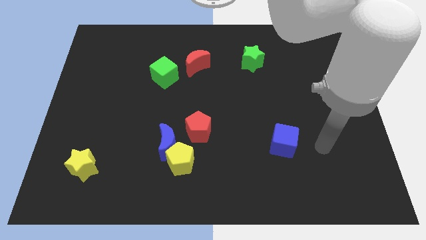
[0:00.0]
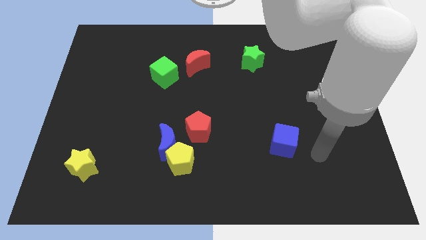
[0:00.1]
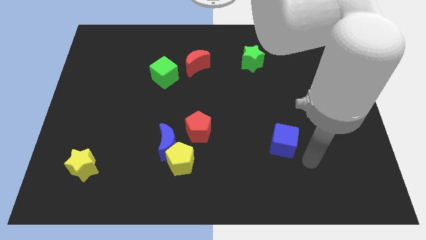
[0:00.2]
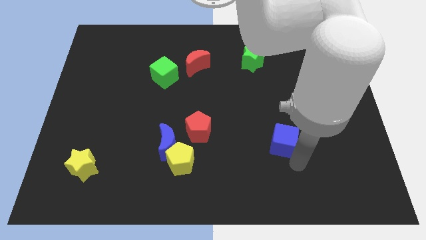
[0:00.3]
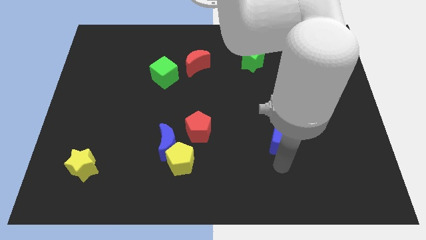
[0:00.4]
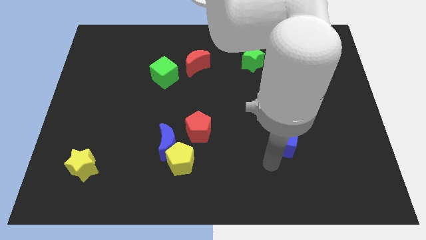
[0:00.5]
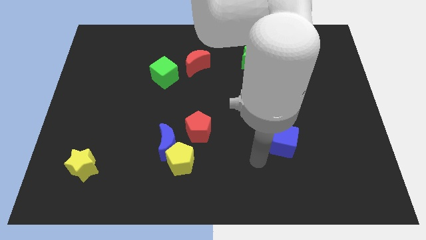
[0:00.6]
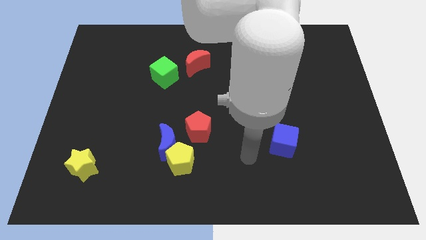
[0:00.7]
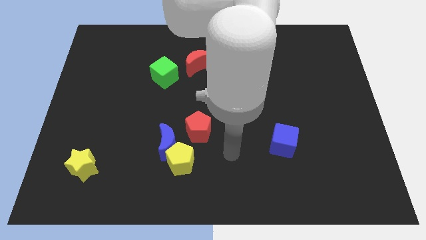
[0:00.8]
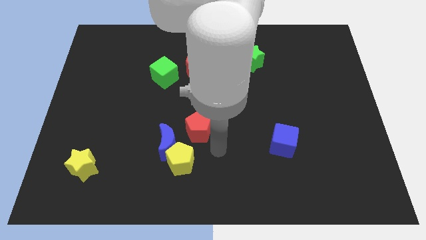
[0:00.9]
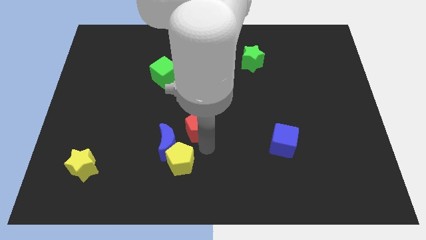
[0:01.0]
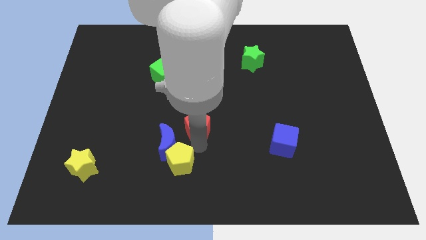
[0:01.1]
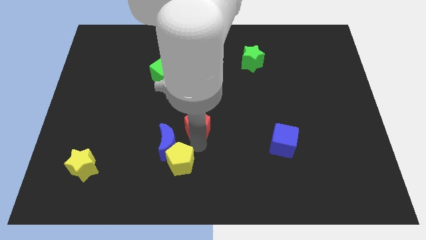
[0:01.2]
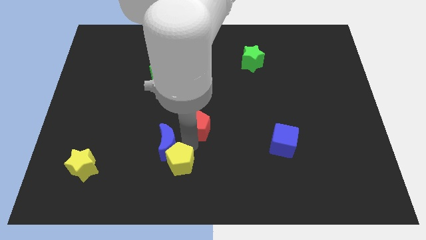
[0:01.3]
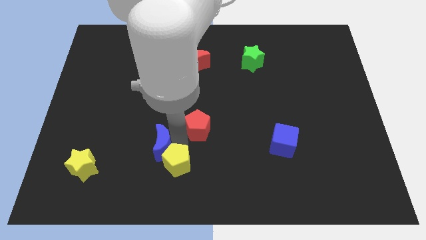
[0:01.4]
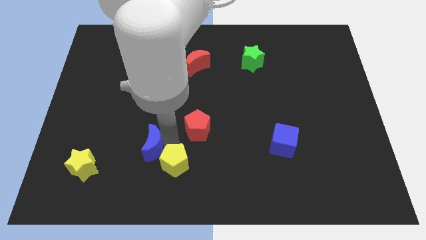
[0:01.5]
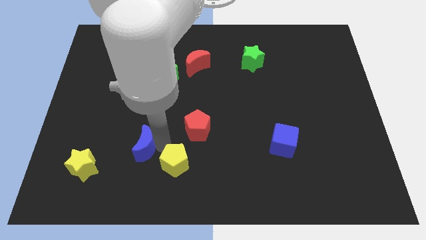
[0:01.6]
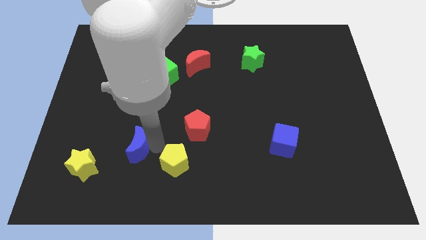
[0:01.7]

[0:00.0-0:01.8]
move the blue moon away from the yellow pentagon and red pentagon

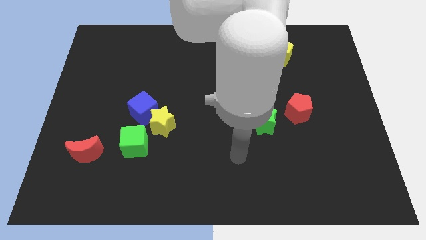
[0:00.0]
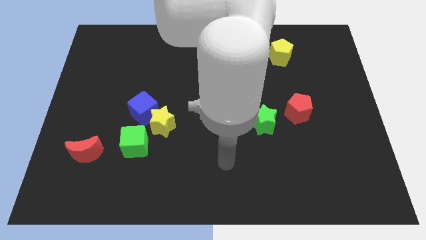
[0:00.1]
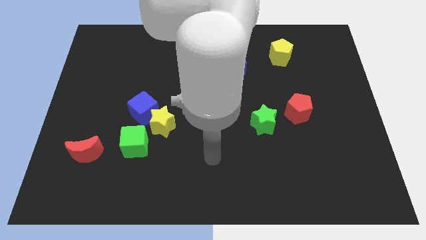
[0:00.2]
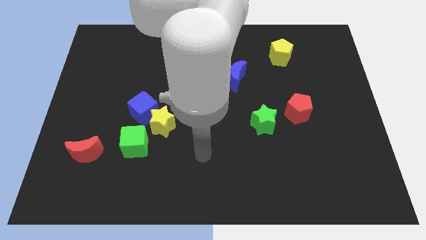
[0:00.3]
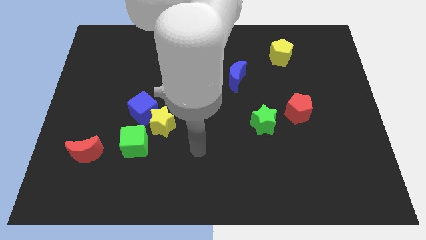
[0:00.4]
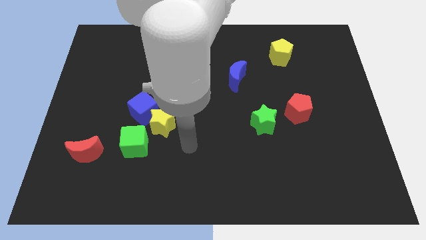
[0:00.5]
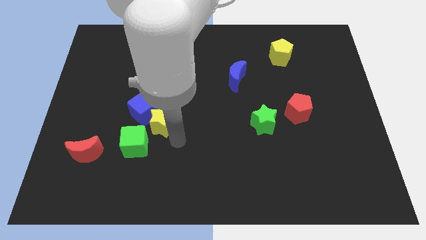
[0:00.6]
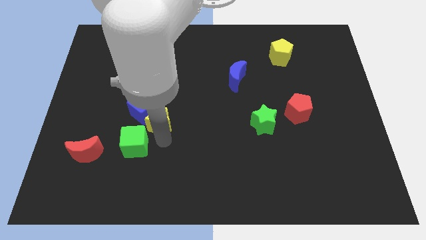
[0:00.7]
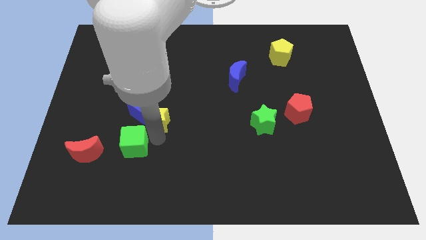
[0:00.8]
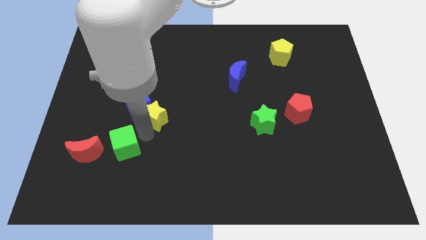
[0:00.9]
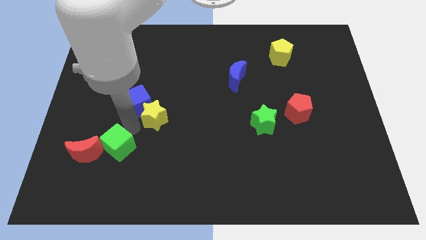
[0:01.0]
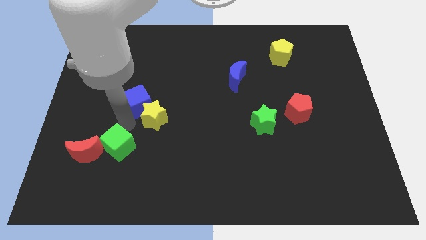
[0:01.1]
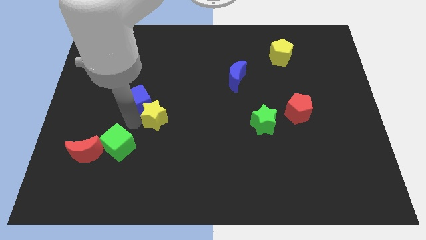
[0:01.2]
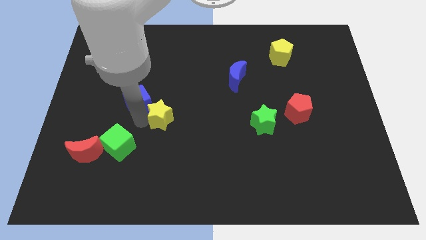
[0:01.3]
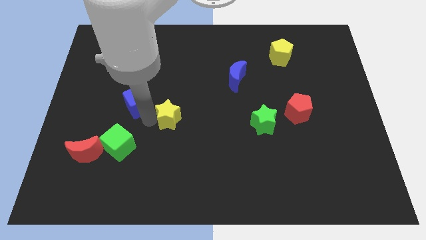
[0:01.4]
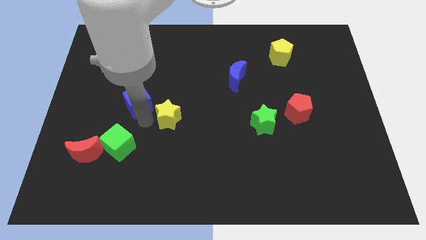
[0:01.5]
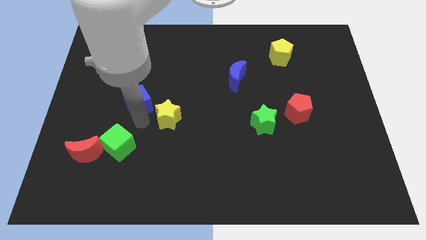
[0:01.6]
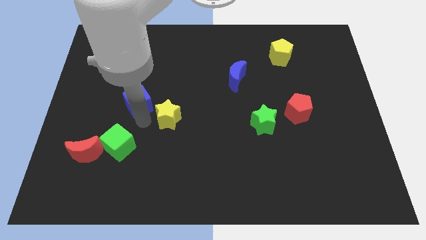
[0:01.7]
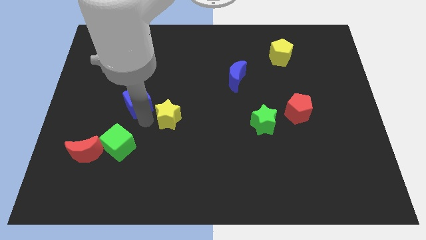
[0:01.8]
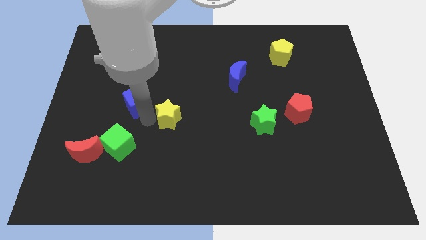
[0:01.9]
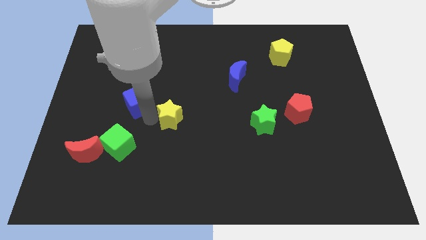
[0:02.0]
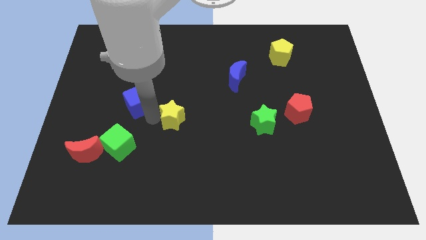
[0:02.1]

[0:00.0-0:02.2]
separate the yellow star from the blue cube and green cube

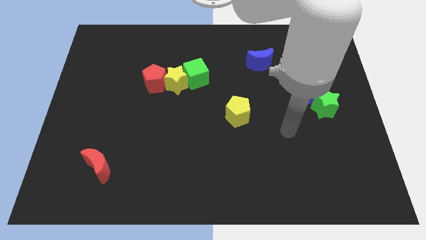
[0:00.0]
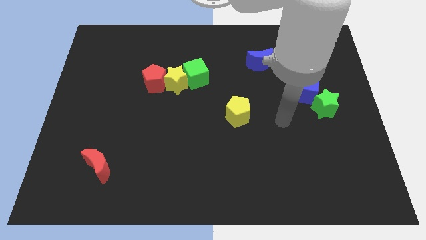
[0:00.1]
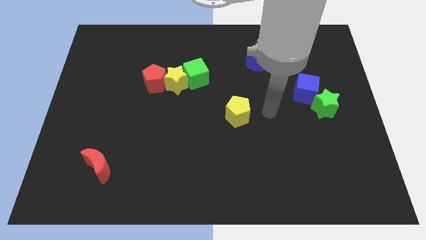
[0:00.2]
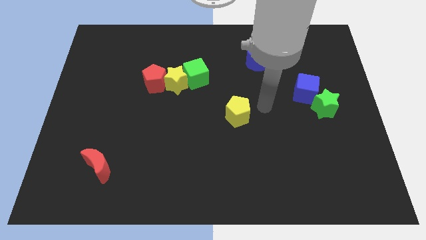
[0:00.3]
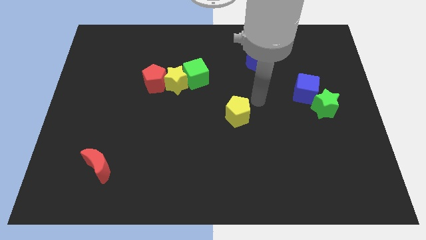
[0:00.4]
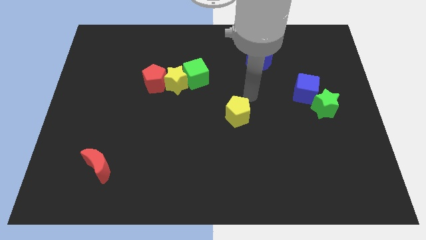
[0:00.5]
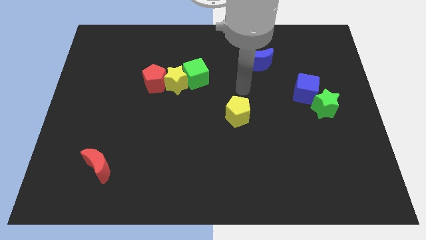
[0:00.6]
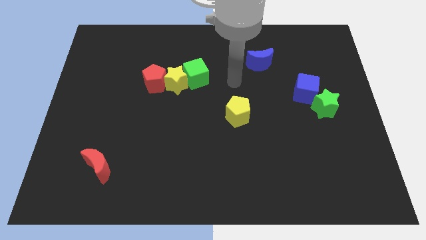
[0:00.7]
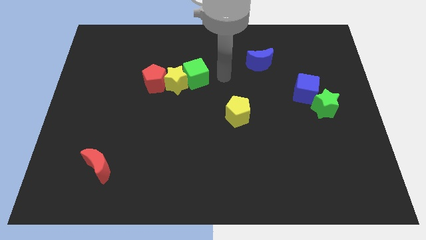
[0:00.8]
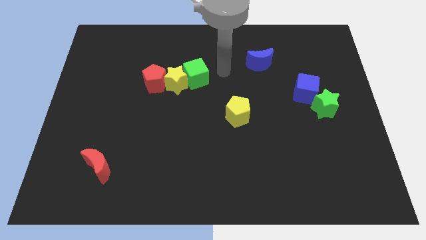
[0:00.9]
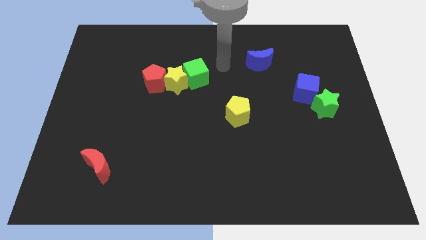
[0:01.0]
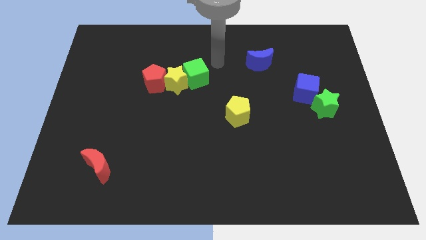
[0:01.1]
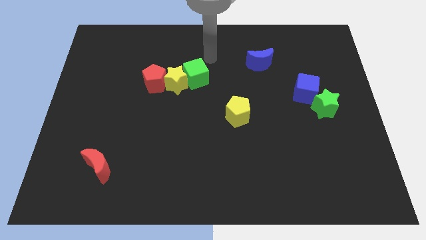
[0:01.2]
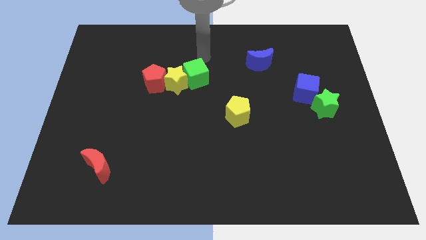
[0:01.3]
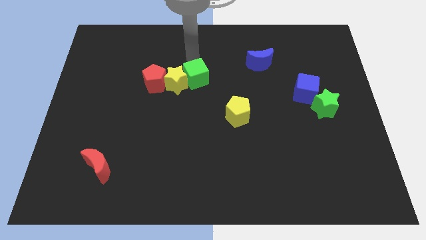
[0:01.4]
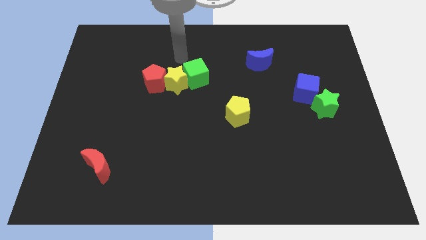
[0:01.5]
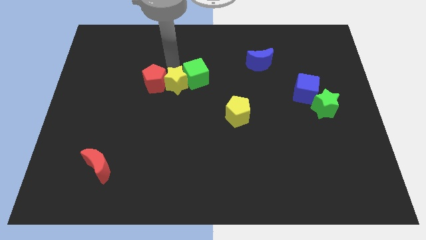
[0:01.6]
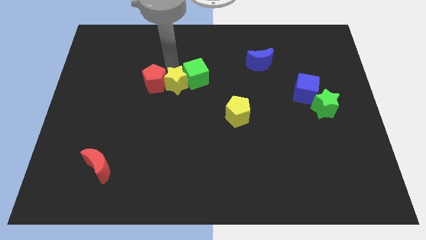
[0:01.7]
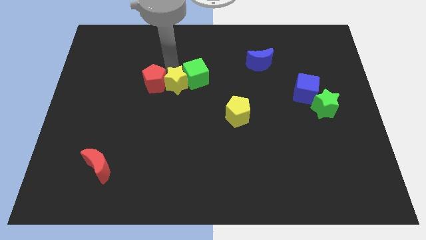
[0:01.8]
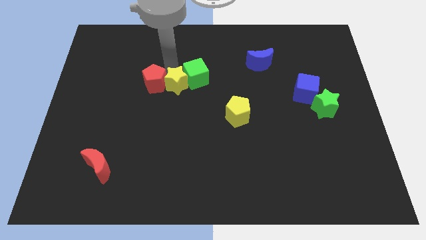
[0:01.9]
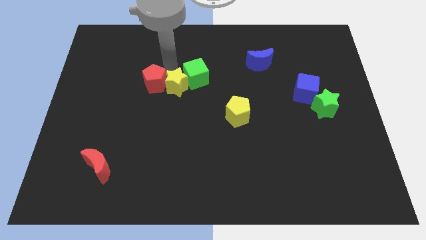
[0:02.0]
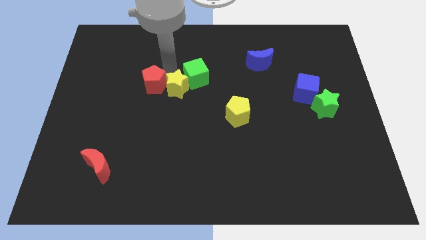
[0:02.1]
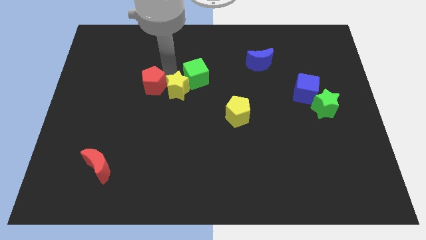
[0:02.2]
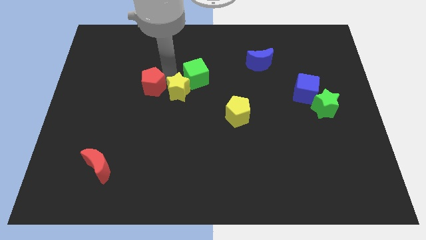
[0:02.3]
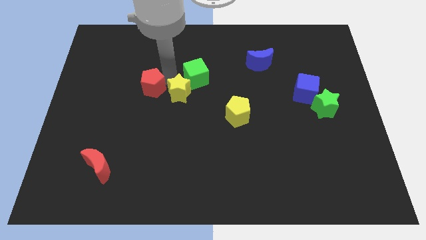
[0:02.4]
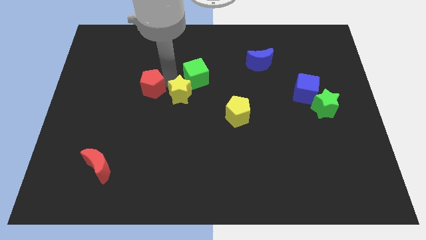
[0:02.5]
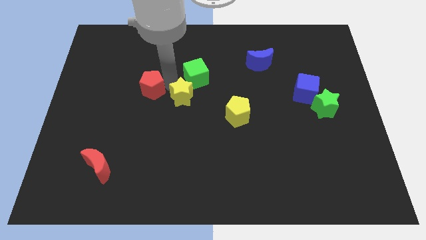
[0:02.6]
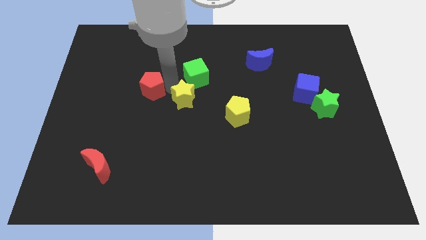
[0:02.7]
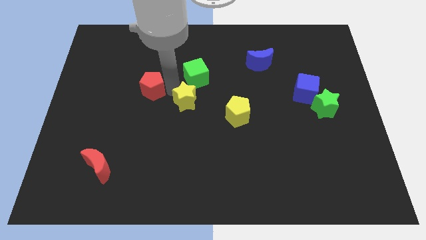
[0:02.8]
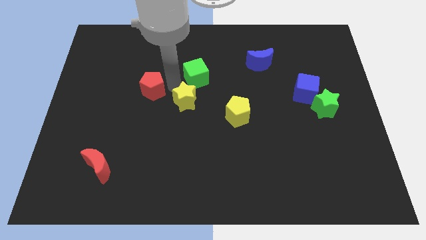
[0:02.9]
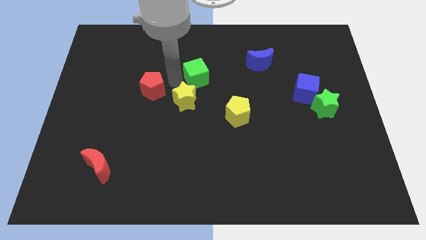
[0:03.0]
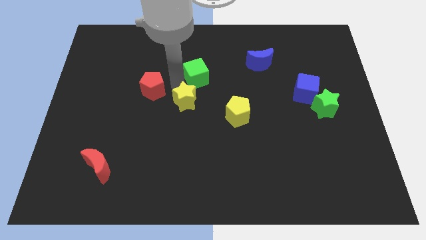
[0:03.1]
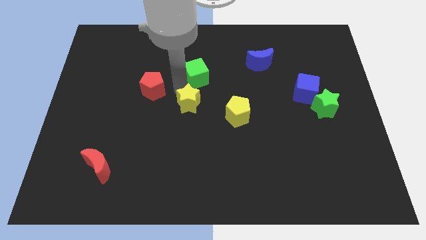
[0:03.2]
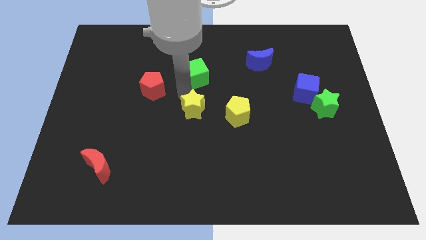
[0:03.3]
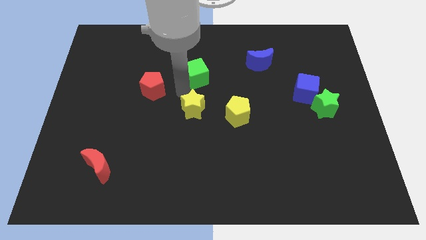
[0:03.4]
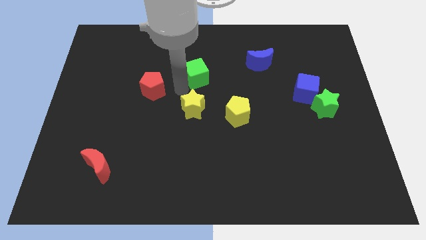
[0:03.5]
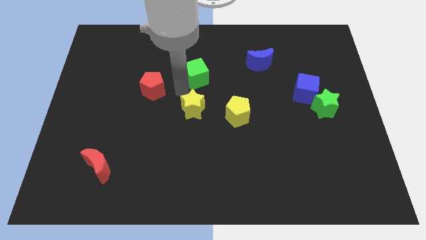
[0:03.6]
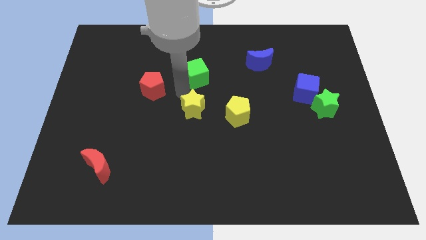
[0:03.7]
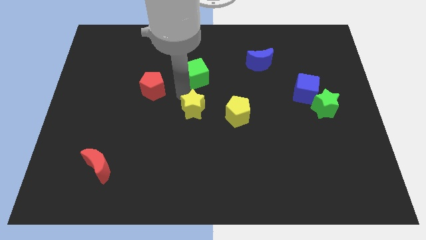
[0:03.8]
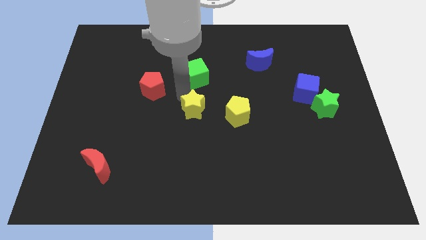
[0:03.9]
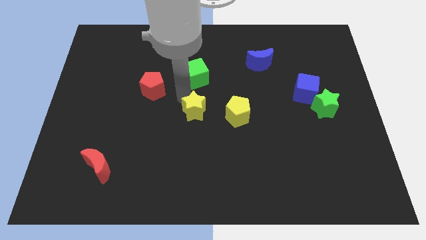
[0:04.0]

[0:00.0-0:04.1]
move the yellow star away from the green cube and red pentagon

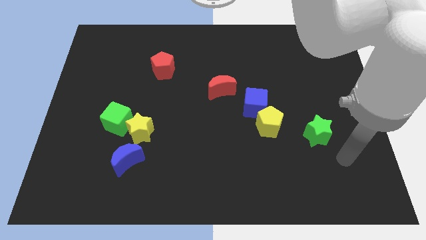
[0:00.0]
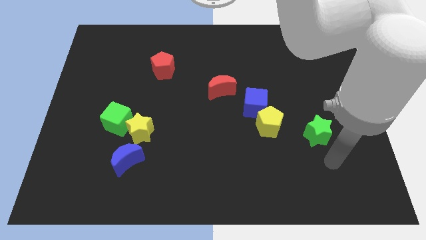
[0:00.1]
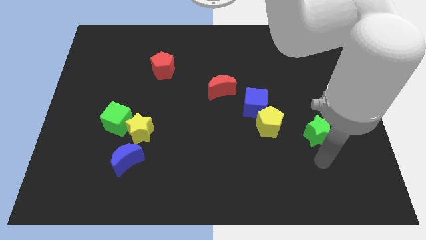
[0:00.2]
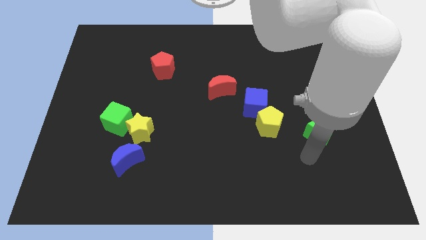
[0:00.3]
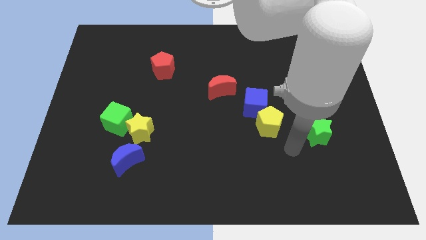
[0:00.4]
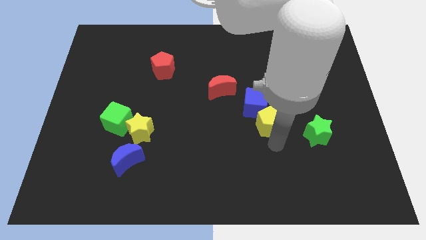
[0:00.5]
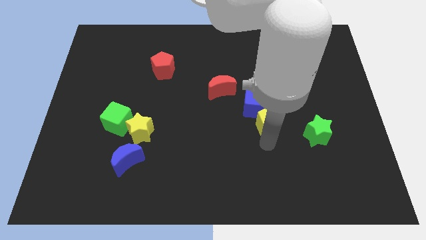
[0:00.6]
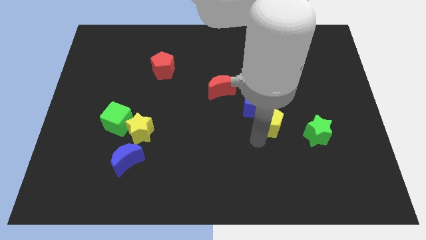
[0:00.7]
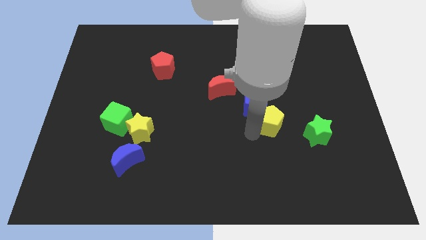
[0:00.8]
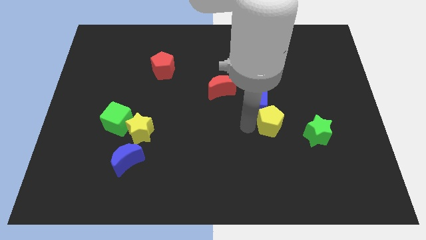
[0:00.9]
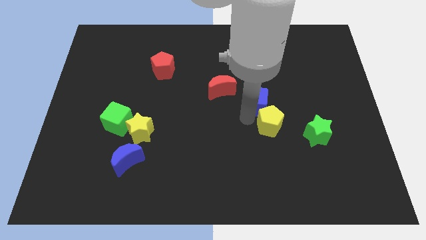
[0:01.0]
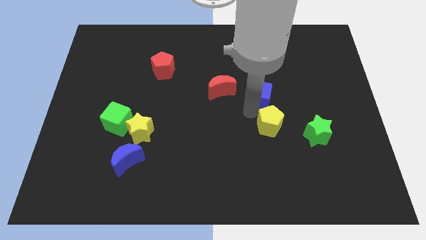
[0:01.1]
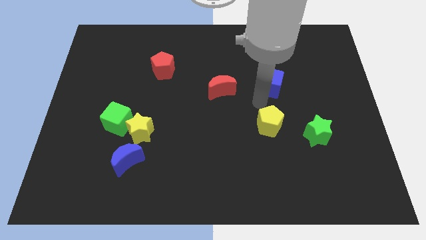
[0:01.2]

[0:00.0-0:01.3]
move the yellow pentagon away from the blue cube
